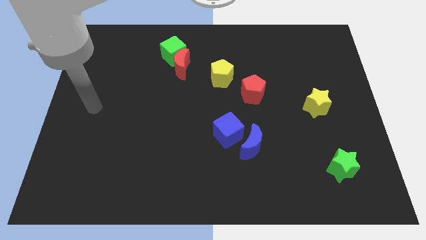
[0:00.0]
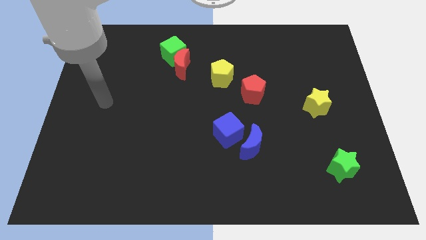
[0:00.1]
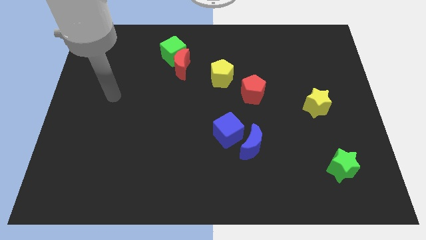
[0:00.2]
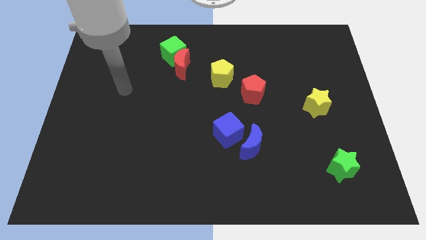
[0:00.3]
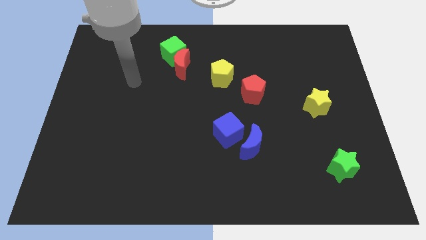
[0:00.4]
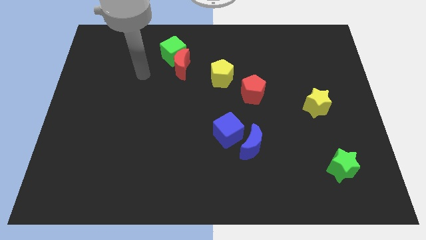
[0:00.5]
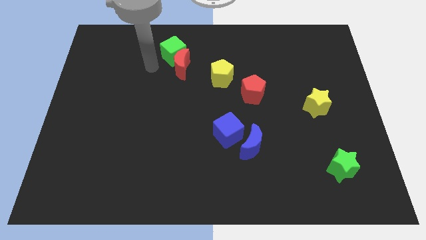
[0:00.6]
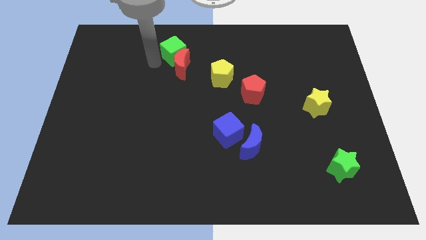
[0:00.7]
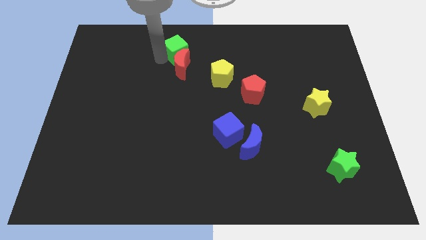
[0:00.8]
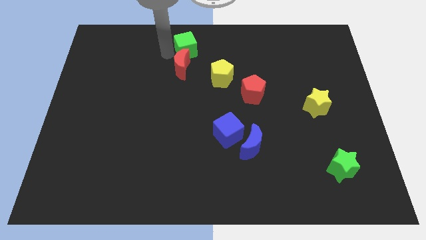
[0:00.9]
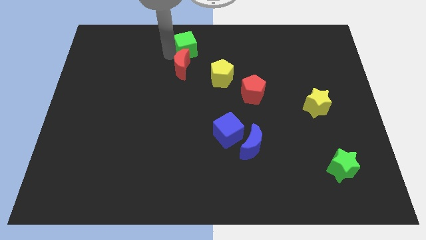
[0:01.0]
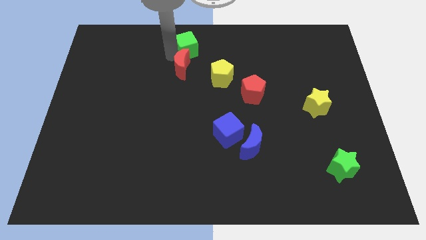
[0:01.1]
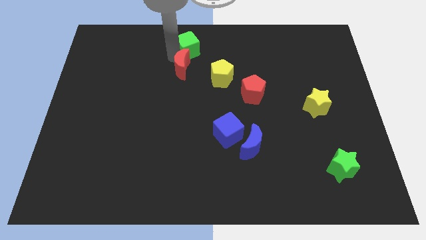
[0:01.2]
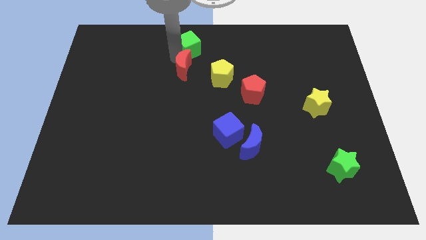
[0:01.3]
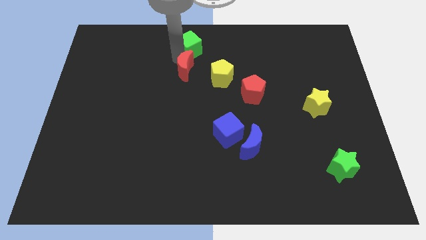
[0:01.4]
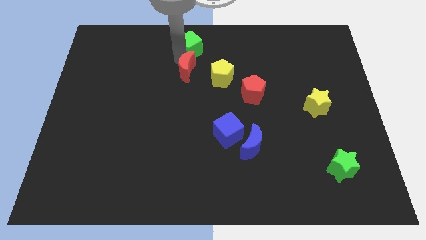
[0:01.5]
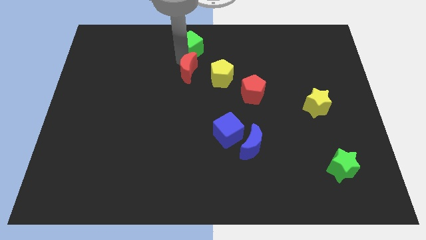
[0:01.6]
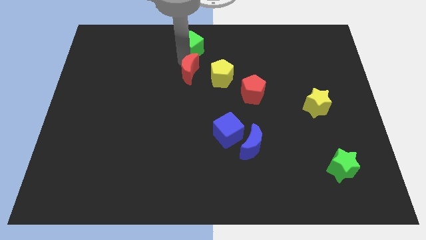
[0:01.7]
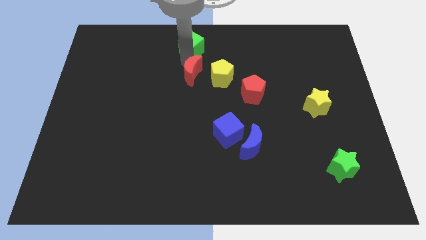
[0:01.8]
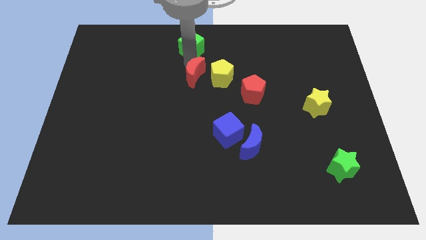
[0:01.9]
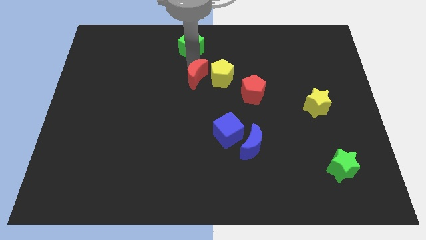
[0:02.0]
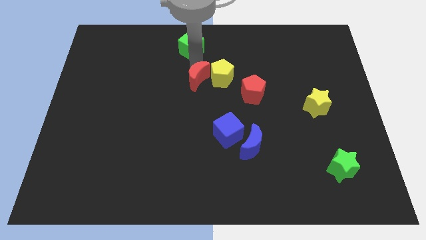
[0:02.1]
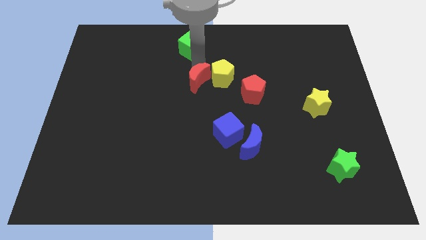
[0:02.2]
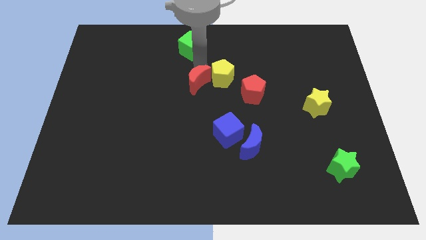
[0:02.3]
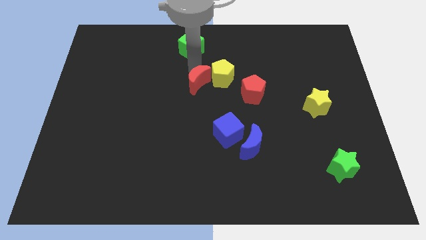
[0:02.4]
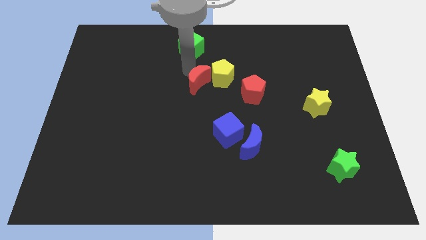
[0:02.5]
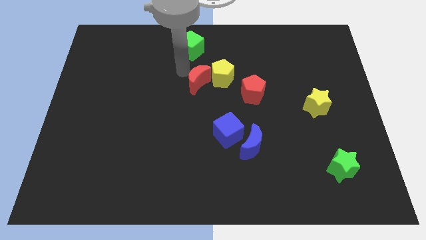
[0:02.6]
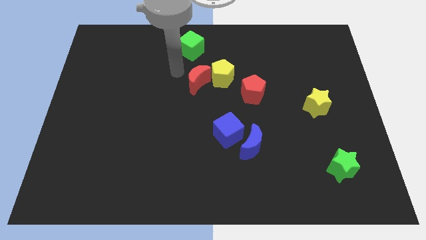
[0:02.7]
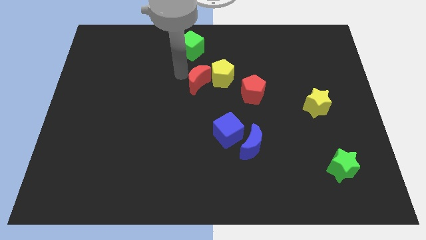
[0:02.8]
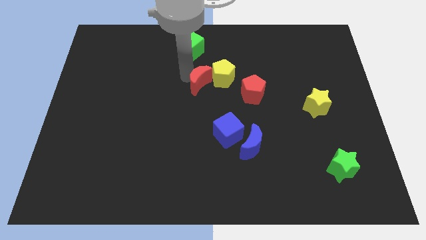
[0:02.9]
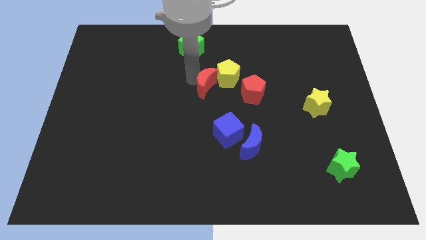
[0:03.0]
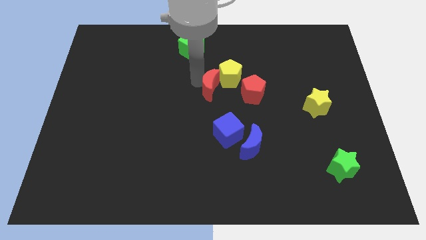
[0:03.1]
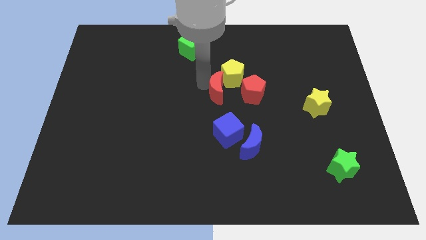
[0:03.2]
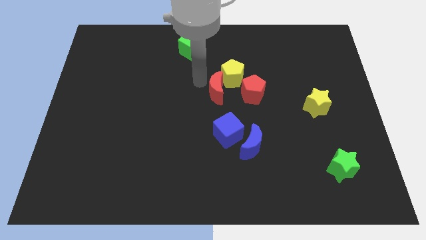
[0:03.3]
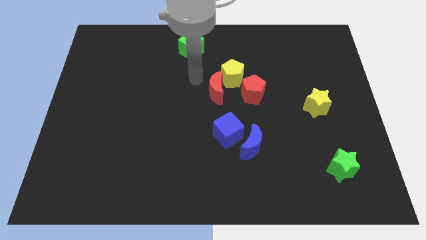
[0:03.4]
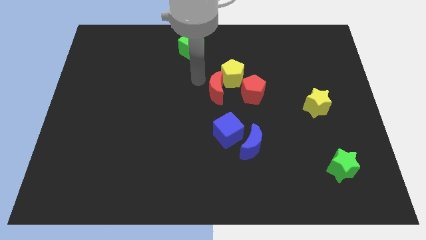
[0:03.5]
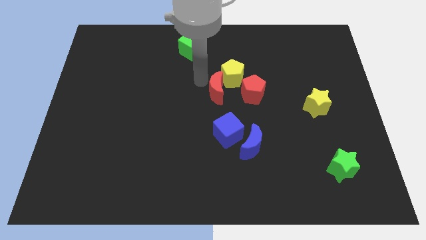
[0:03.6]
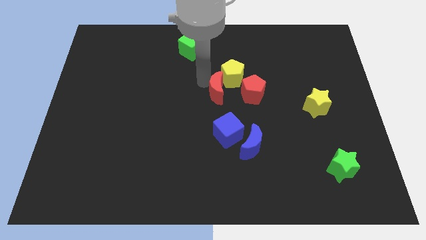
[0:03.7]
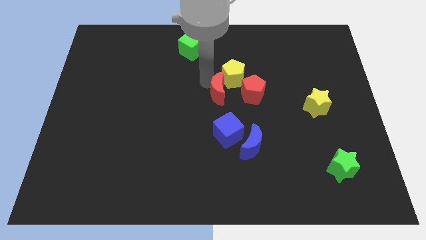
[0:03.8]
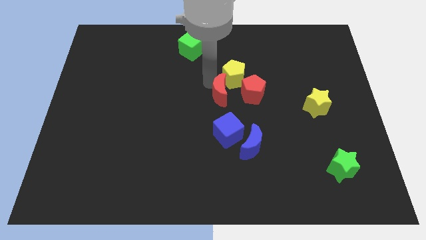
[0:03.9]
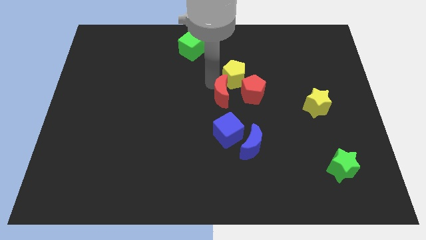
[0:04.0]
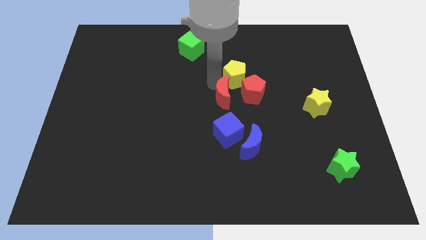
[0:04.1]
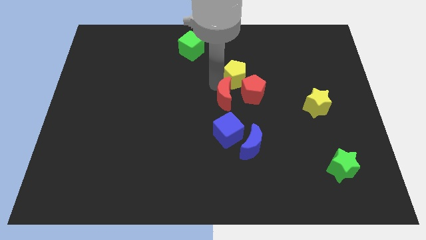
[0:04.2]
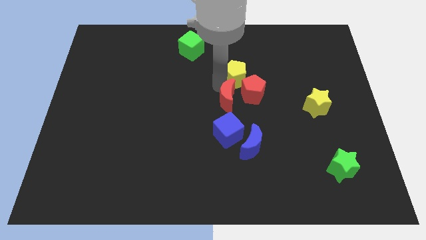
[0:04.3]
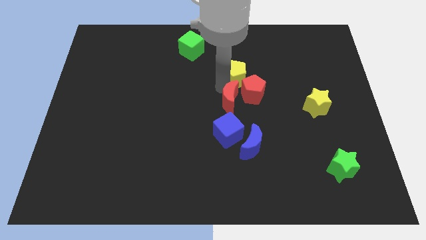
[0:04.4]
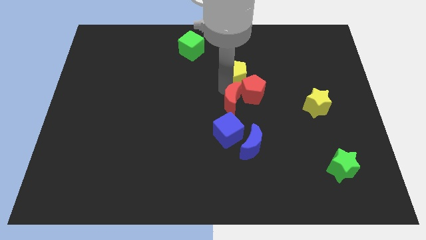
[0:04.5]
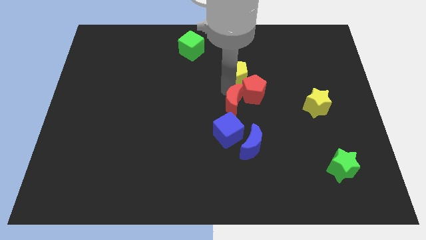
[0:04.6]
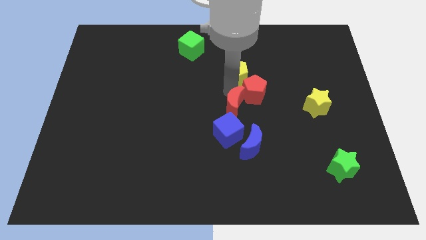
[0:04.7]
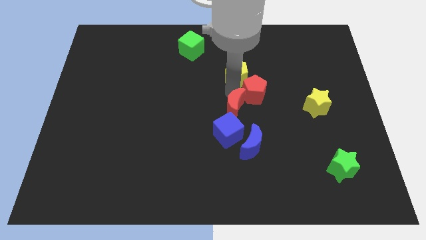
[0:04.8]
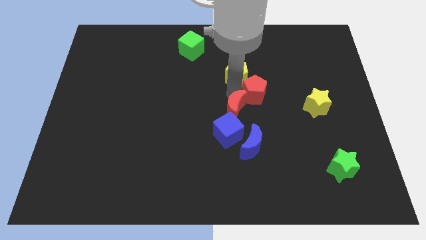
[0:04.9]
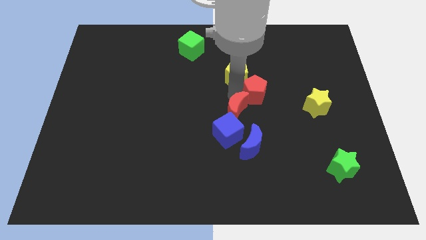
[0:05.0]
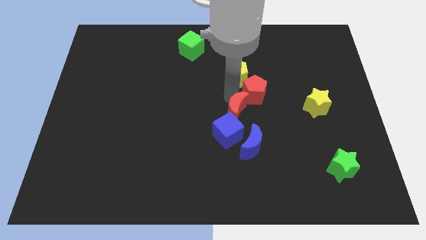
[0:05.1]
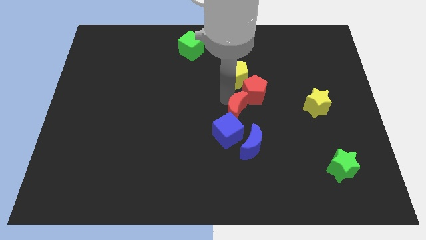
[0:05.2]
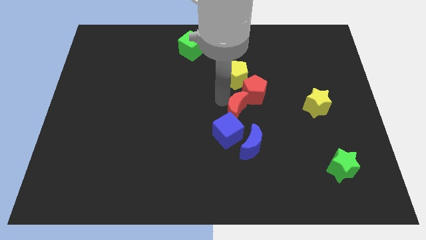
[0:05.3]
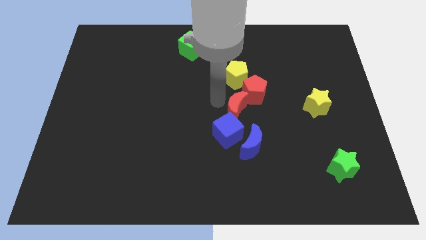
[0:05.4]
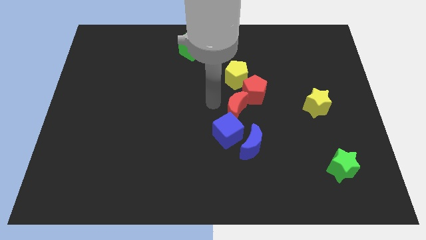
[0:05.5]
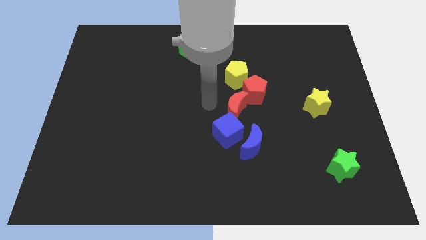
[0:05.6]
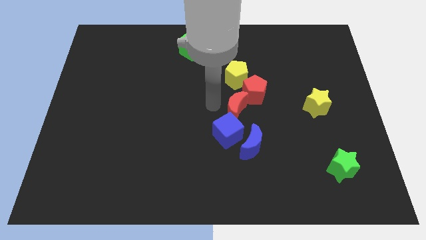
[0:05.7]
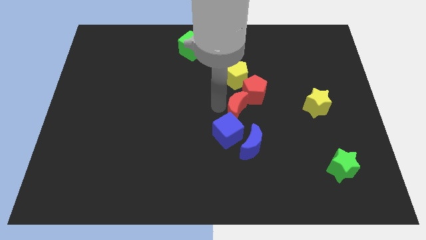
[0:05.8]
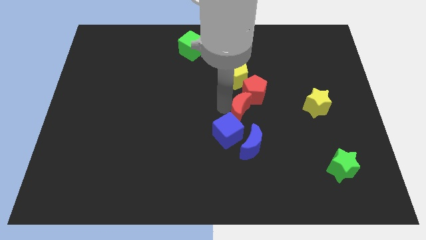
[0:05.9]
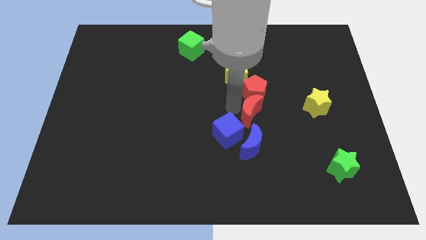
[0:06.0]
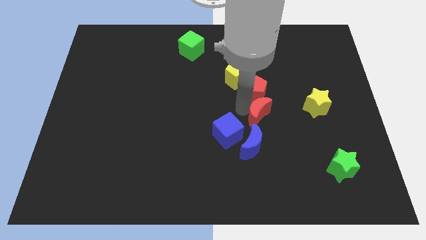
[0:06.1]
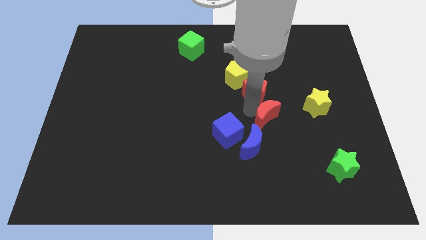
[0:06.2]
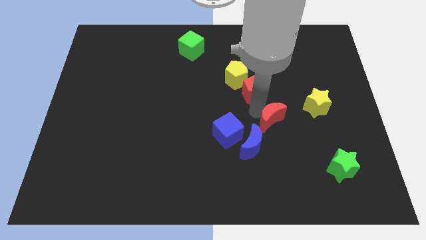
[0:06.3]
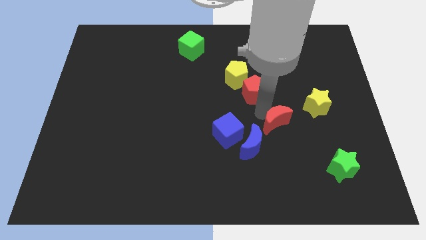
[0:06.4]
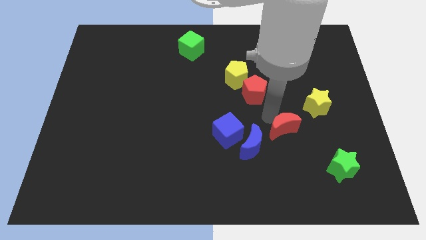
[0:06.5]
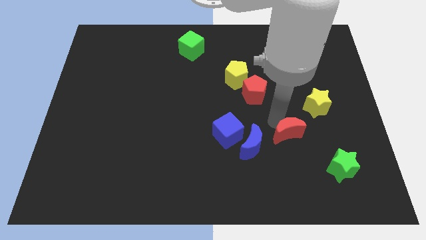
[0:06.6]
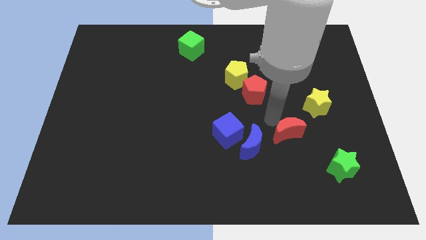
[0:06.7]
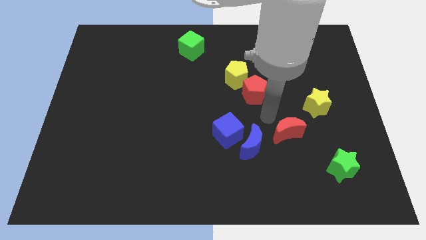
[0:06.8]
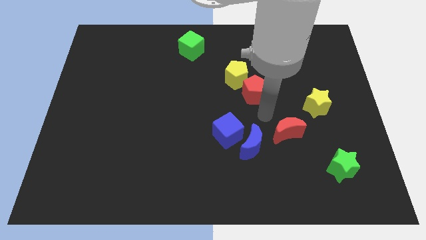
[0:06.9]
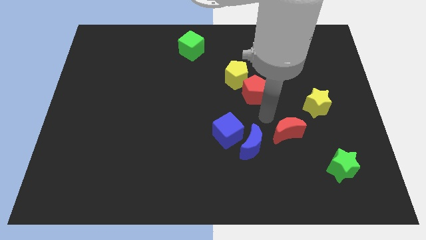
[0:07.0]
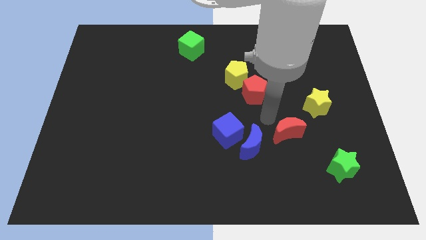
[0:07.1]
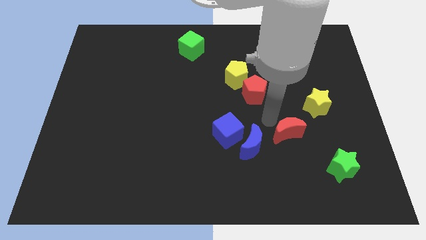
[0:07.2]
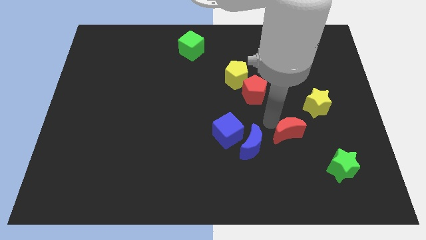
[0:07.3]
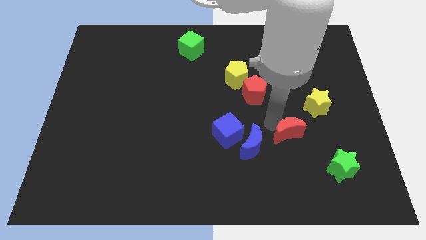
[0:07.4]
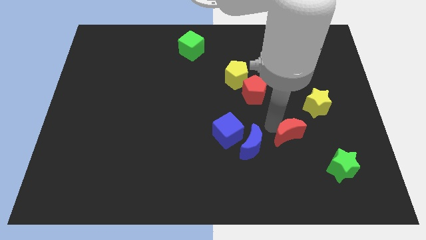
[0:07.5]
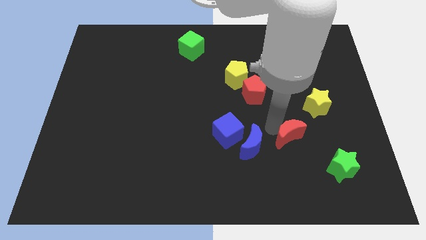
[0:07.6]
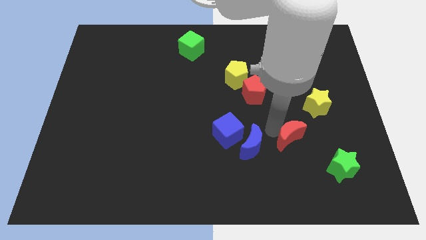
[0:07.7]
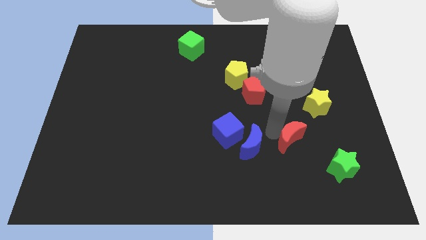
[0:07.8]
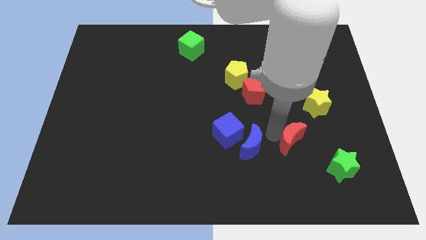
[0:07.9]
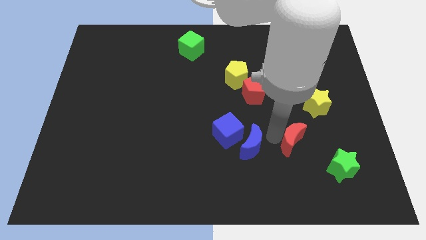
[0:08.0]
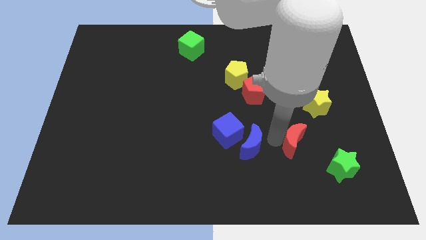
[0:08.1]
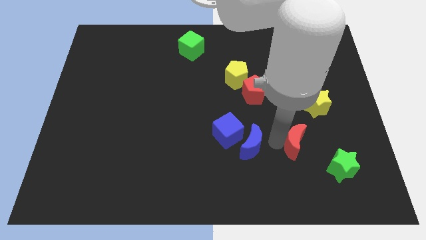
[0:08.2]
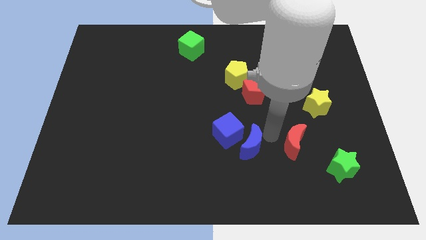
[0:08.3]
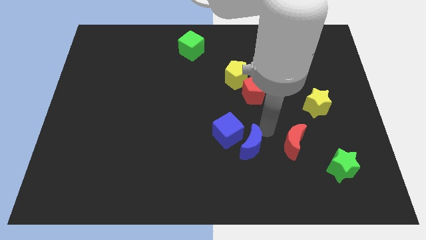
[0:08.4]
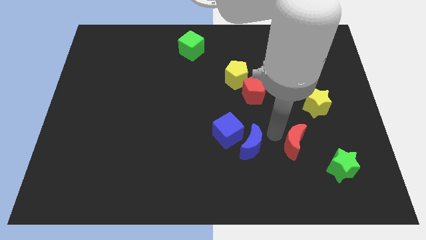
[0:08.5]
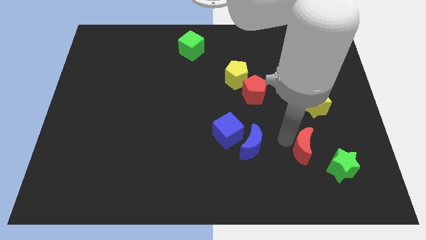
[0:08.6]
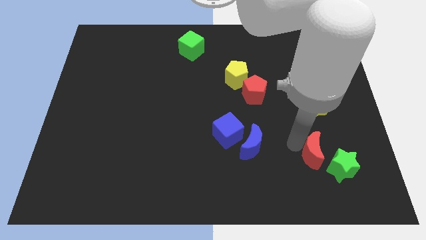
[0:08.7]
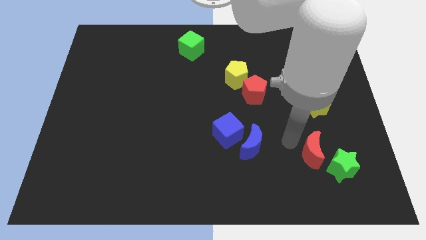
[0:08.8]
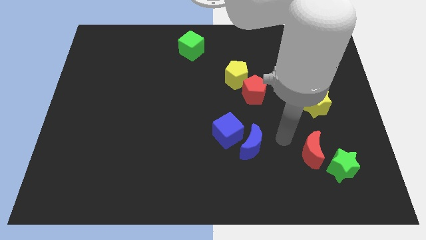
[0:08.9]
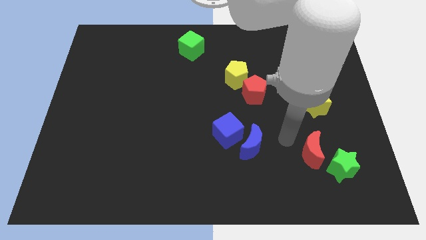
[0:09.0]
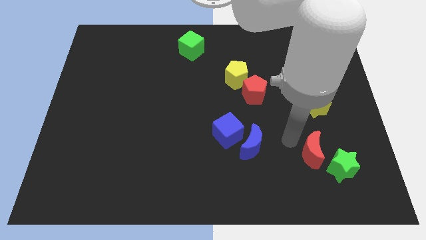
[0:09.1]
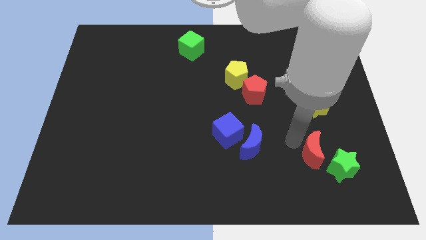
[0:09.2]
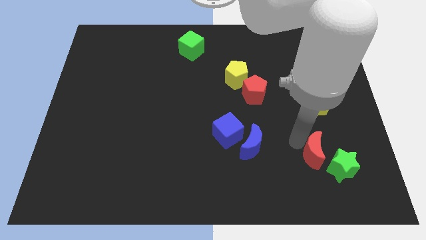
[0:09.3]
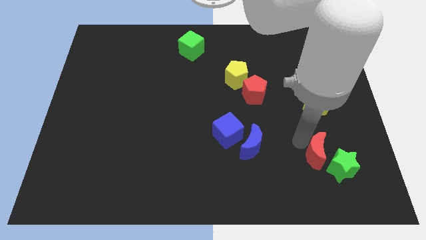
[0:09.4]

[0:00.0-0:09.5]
slide the red moon to the green star
